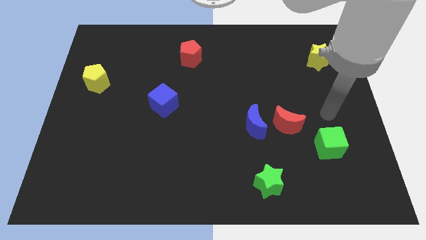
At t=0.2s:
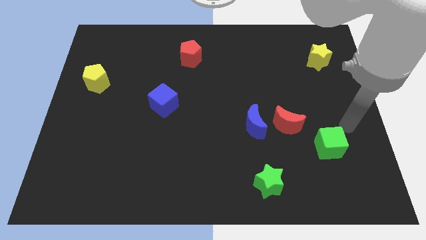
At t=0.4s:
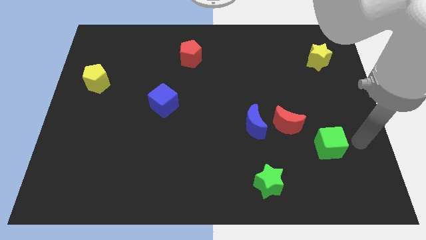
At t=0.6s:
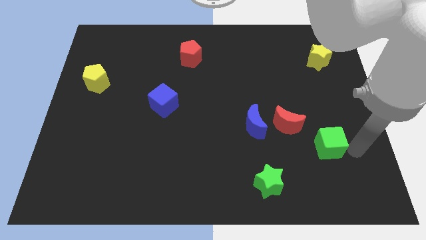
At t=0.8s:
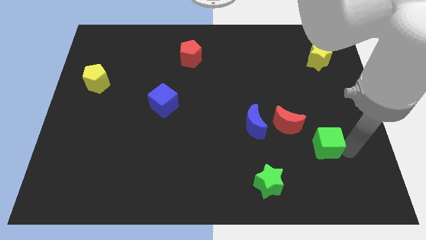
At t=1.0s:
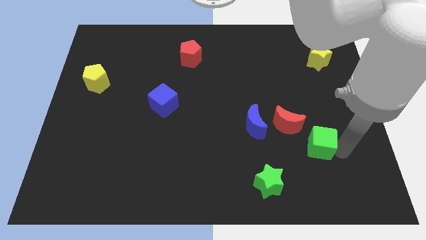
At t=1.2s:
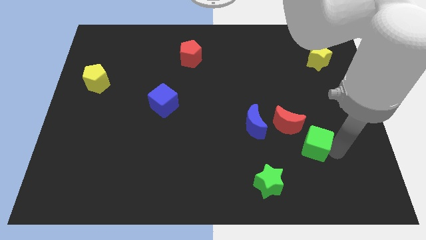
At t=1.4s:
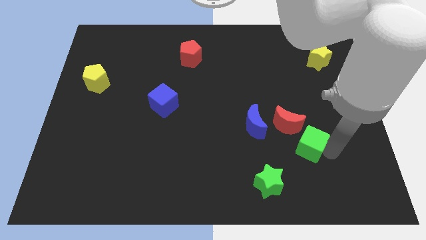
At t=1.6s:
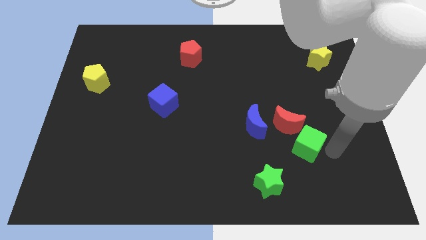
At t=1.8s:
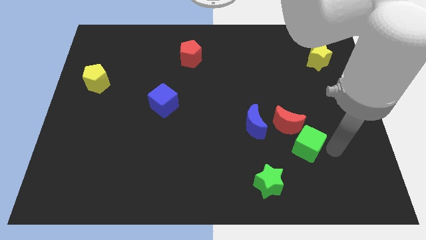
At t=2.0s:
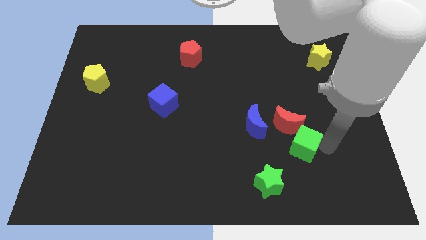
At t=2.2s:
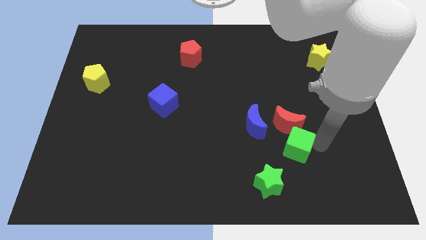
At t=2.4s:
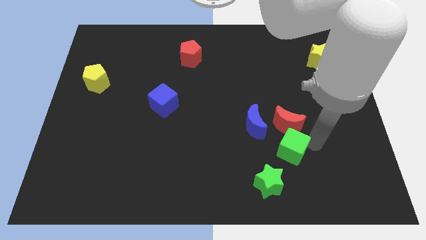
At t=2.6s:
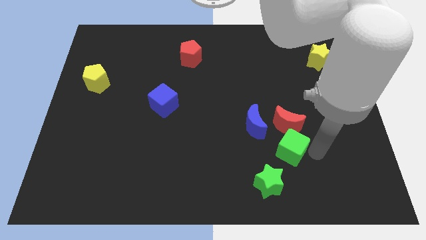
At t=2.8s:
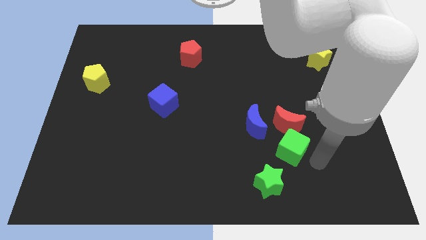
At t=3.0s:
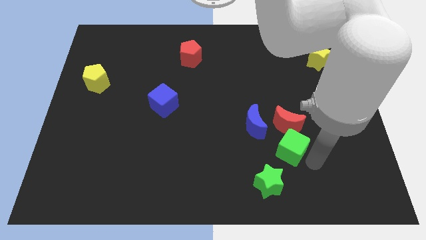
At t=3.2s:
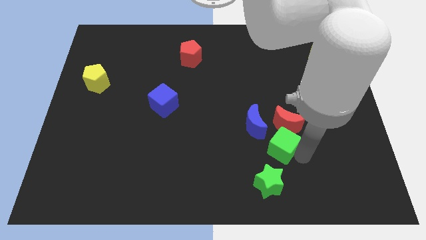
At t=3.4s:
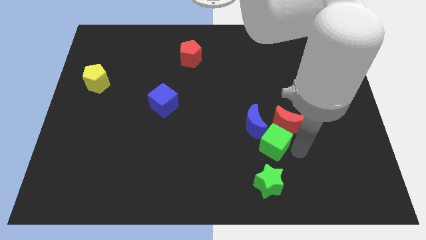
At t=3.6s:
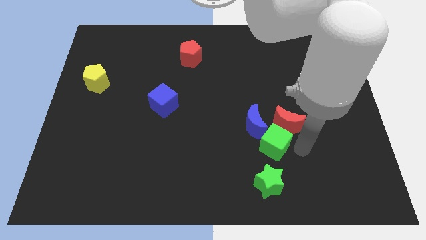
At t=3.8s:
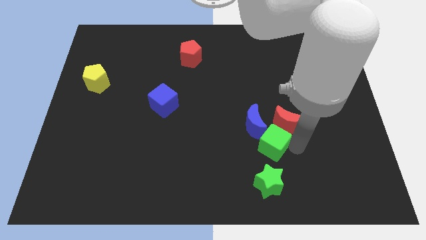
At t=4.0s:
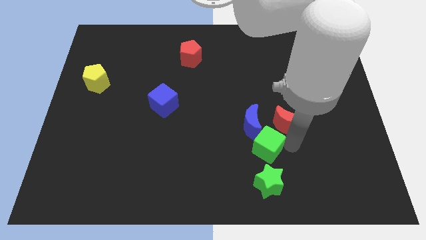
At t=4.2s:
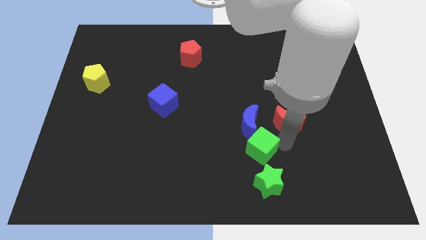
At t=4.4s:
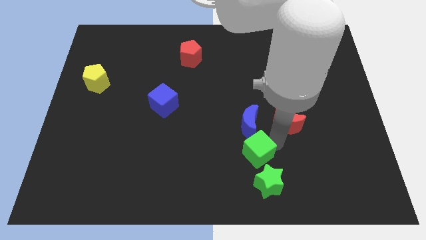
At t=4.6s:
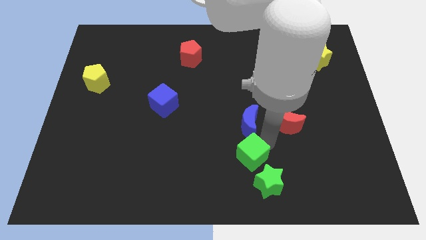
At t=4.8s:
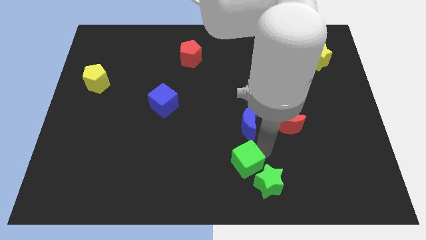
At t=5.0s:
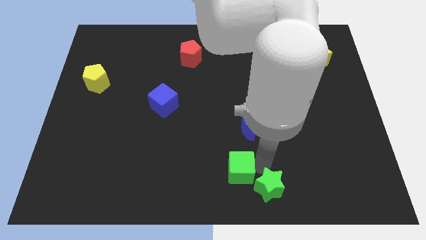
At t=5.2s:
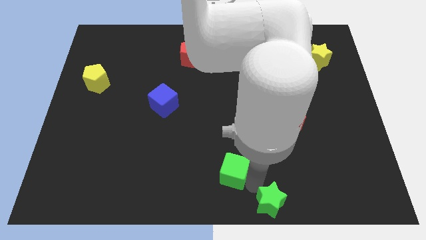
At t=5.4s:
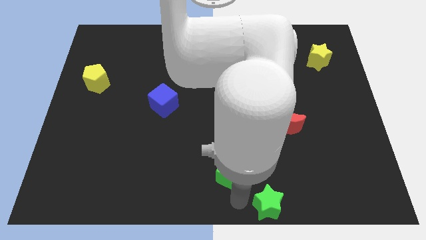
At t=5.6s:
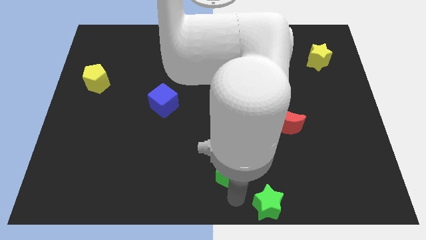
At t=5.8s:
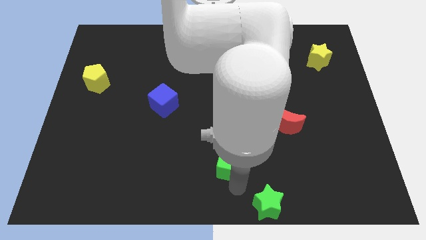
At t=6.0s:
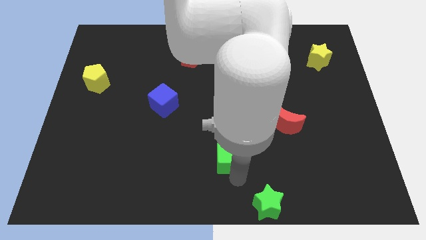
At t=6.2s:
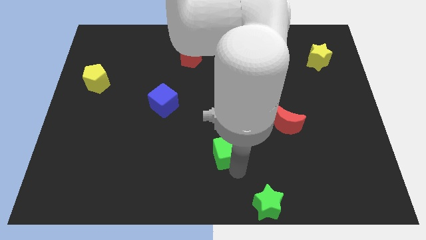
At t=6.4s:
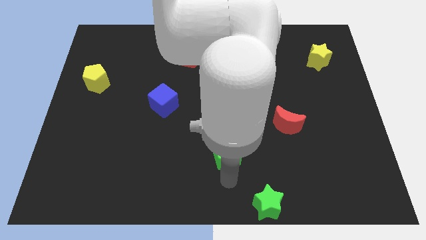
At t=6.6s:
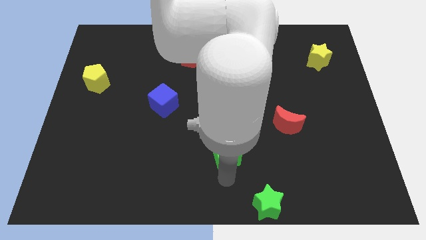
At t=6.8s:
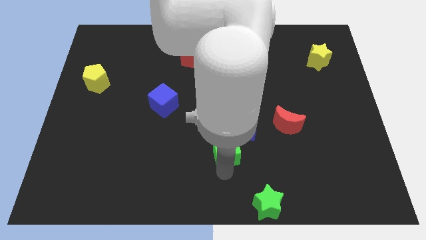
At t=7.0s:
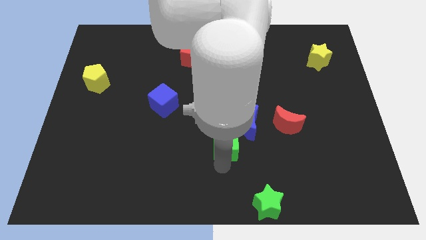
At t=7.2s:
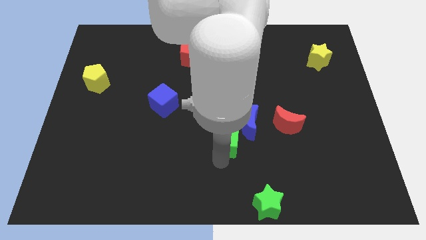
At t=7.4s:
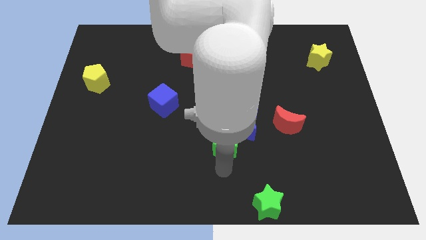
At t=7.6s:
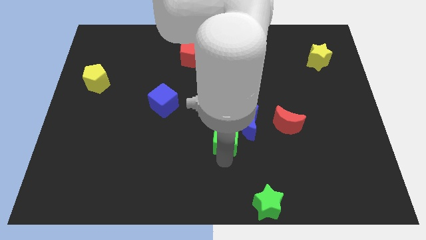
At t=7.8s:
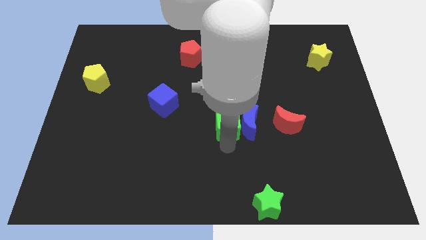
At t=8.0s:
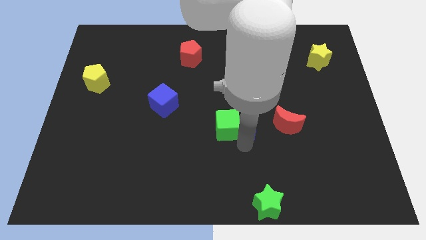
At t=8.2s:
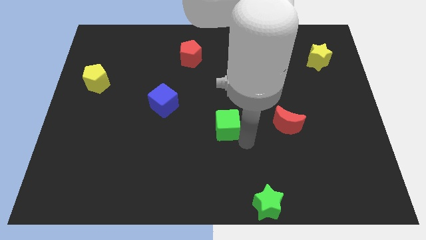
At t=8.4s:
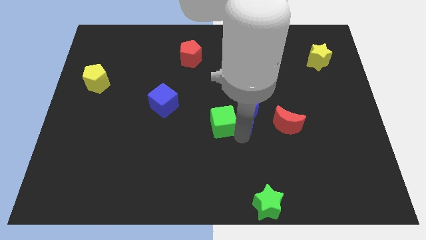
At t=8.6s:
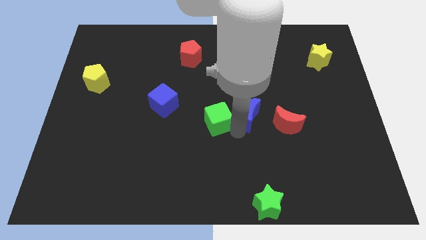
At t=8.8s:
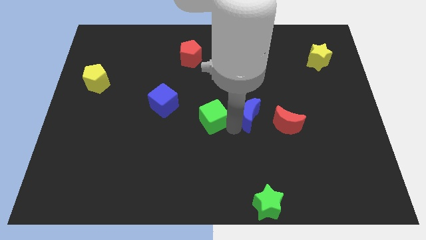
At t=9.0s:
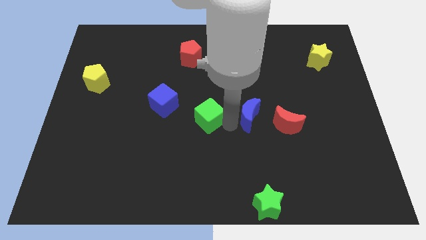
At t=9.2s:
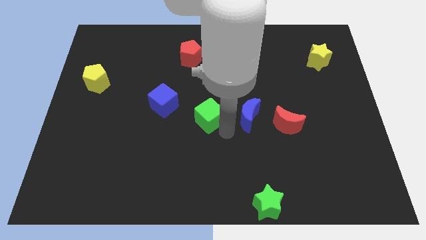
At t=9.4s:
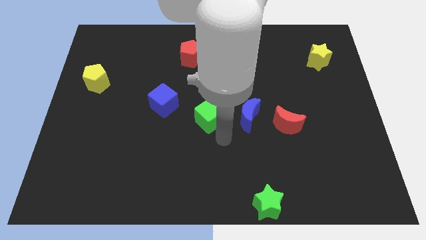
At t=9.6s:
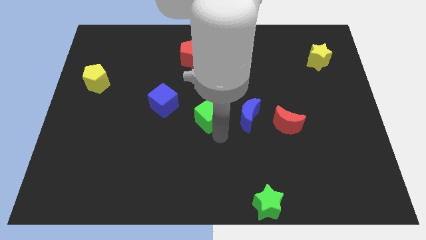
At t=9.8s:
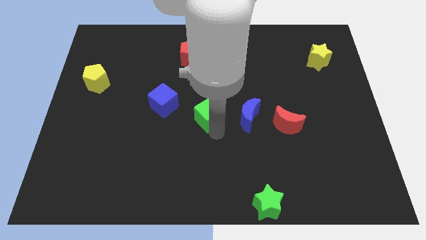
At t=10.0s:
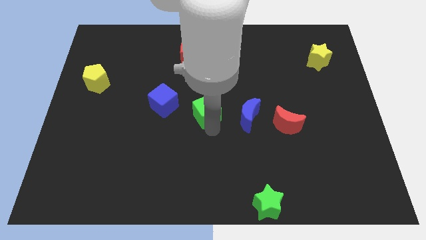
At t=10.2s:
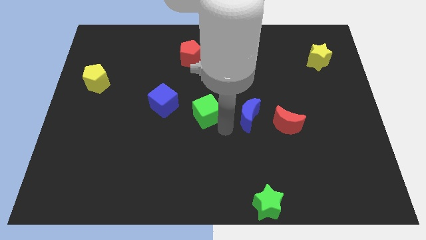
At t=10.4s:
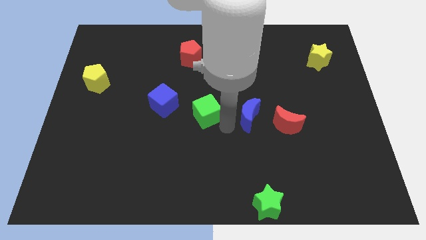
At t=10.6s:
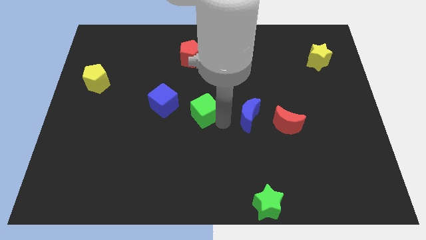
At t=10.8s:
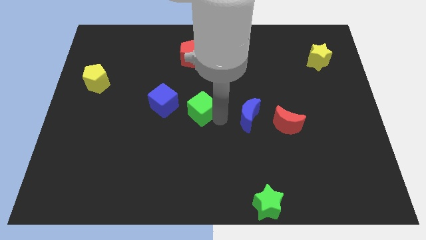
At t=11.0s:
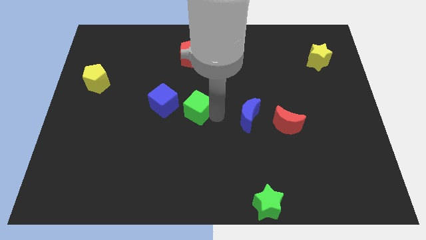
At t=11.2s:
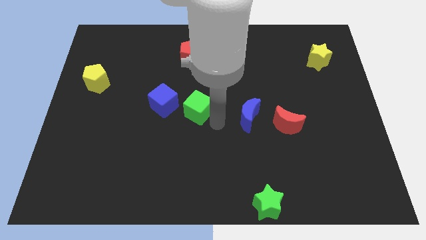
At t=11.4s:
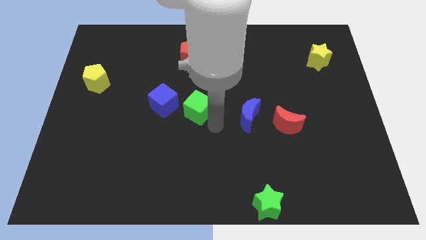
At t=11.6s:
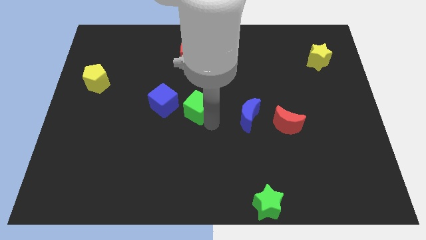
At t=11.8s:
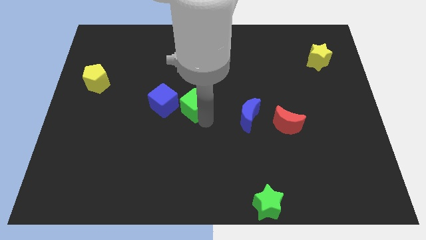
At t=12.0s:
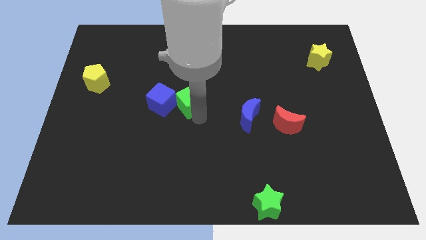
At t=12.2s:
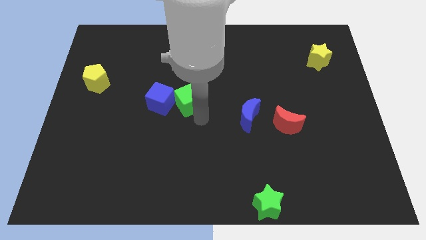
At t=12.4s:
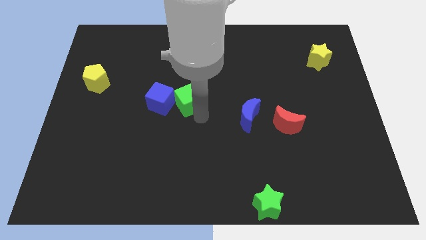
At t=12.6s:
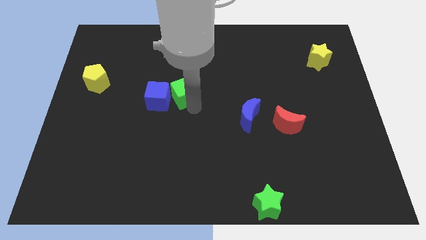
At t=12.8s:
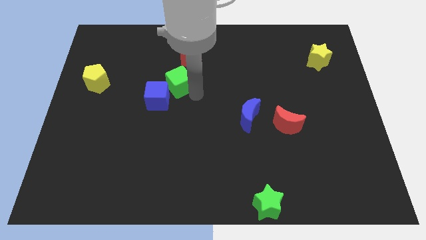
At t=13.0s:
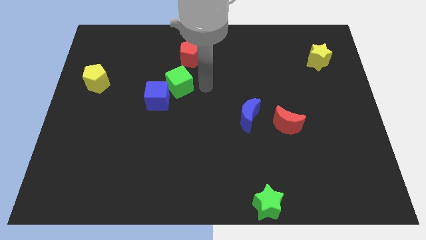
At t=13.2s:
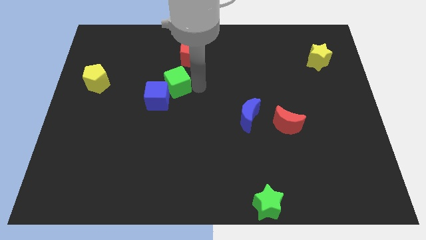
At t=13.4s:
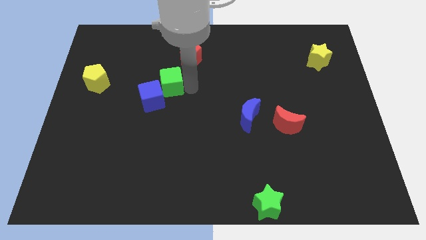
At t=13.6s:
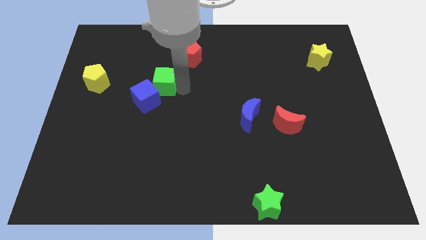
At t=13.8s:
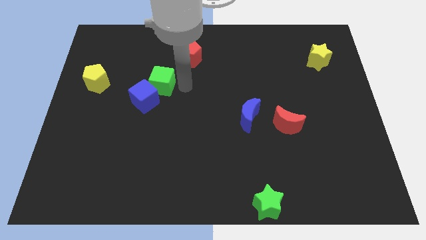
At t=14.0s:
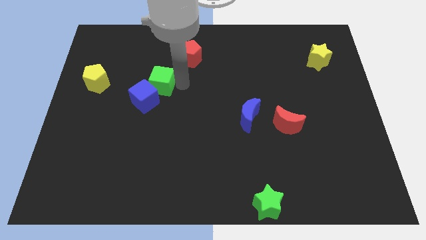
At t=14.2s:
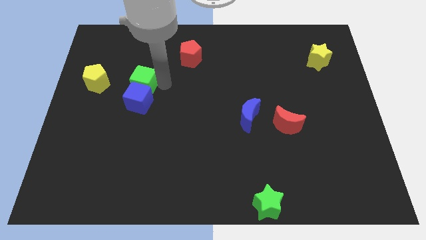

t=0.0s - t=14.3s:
slide the green cube to the top left of the blue cube
